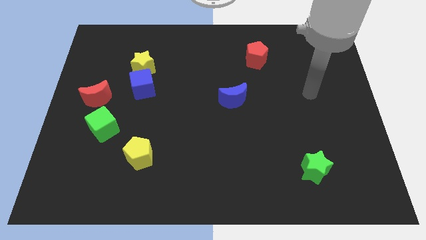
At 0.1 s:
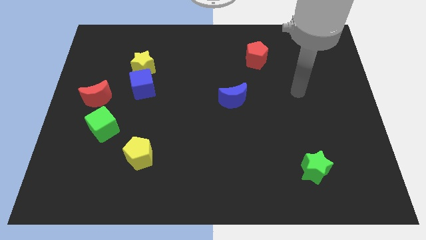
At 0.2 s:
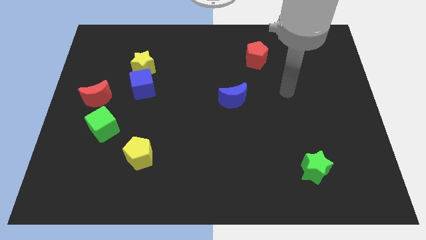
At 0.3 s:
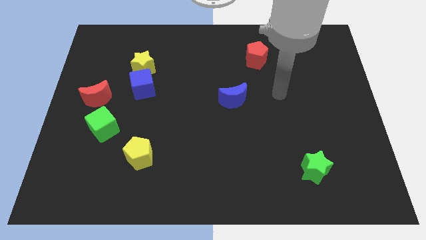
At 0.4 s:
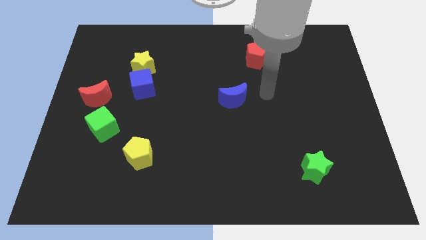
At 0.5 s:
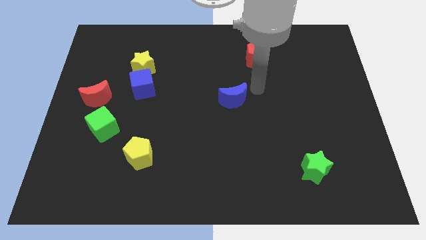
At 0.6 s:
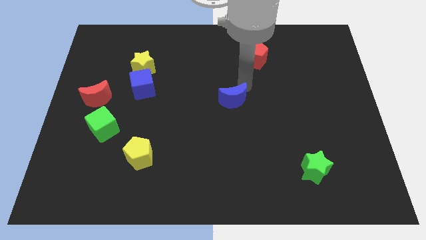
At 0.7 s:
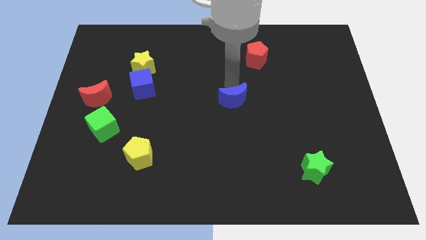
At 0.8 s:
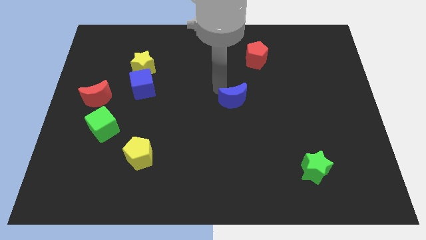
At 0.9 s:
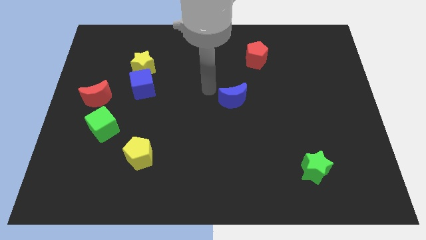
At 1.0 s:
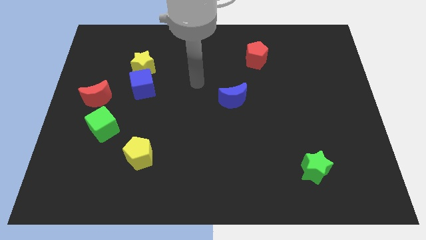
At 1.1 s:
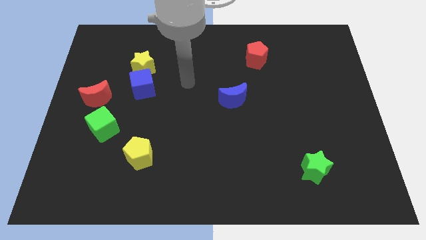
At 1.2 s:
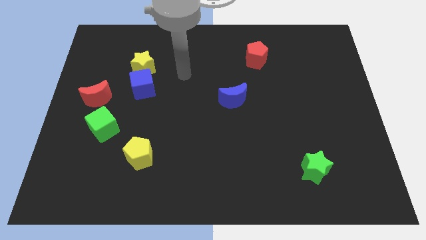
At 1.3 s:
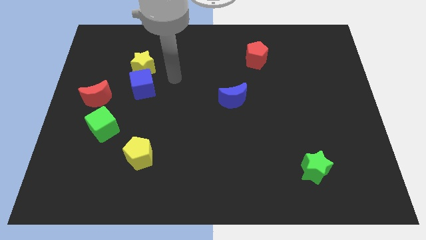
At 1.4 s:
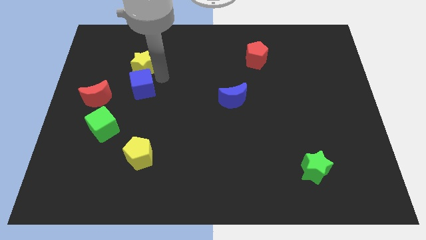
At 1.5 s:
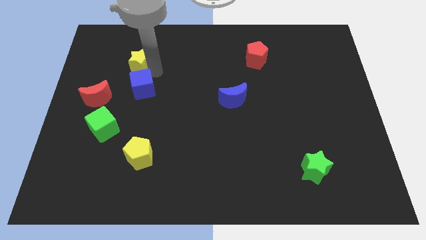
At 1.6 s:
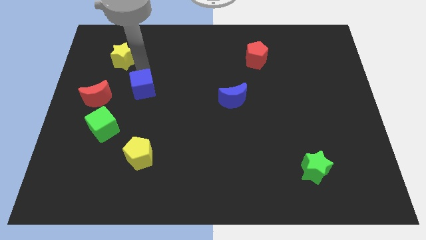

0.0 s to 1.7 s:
separate the blue cube from the yellow star

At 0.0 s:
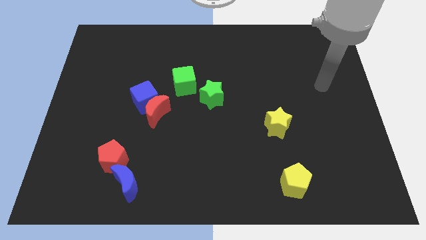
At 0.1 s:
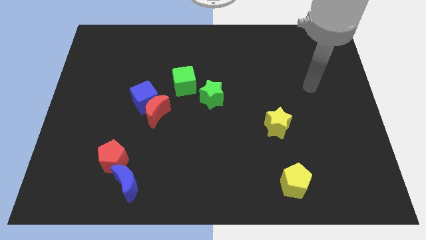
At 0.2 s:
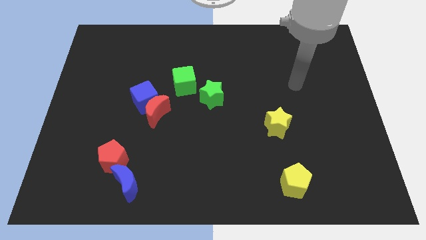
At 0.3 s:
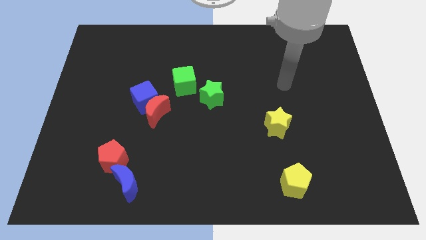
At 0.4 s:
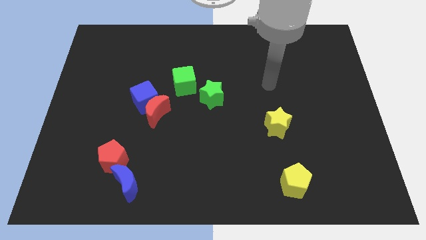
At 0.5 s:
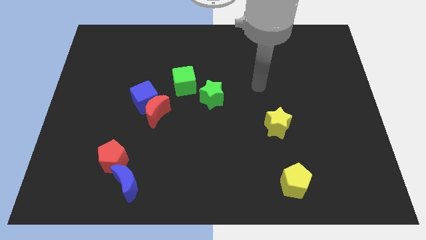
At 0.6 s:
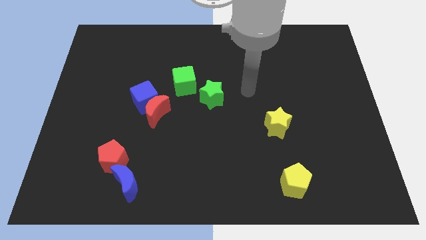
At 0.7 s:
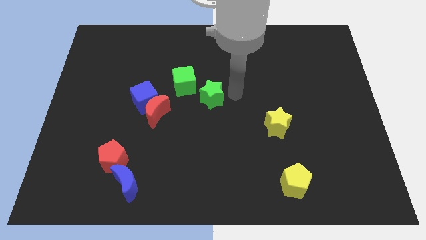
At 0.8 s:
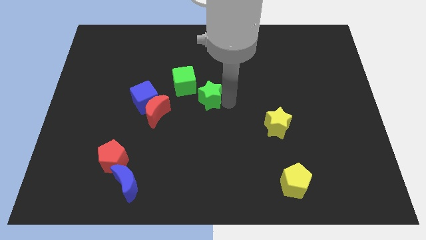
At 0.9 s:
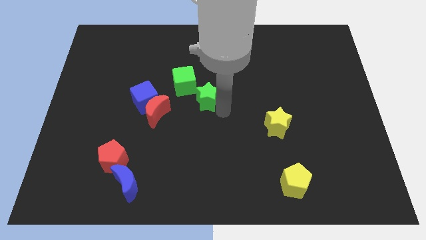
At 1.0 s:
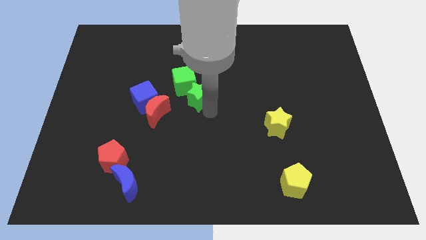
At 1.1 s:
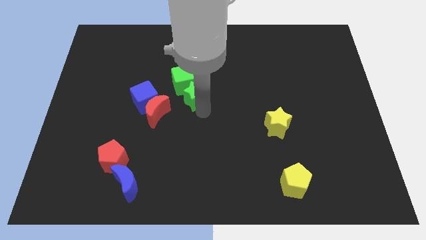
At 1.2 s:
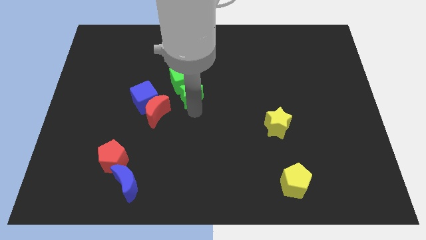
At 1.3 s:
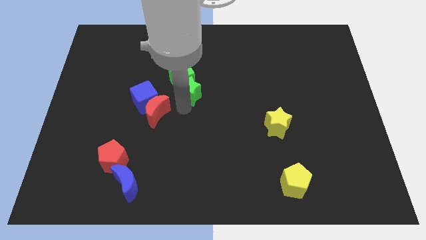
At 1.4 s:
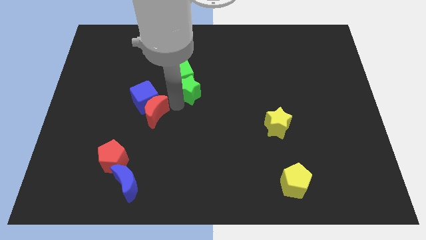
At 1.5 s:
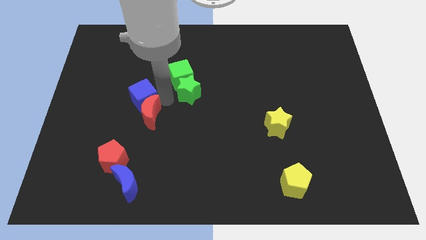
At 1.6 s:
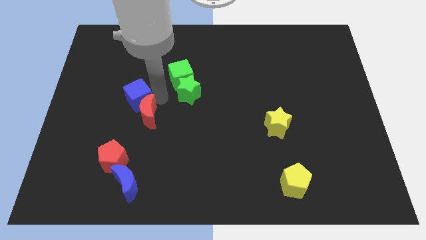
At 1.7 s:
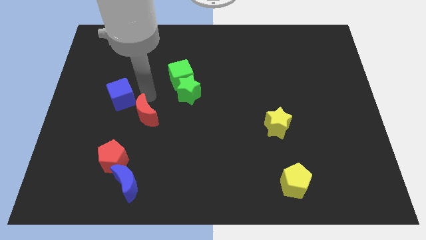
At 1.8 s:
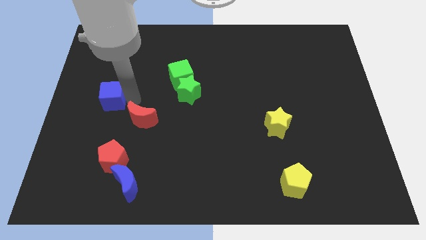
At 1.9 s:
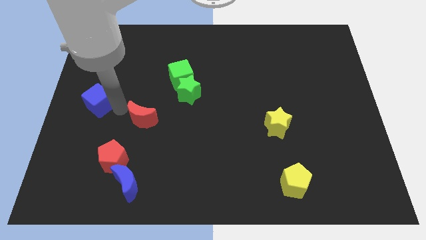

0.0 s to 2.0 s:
separate the red moon from the blue cube

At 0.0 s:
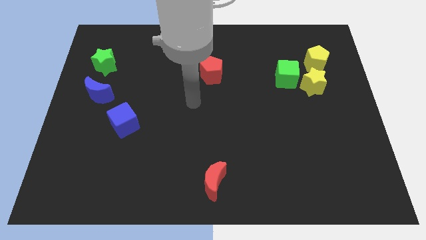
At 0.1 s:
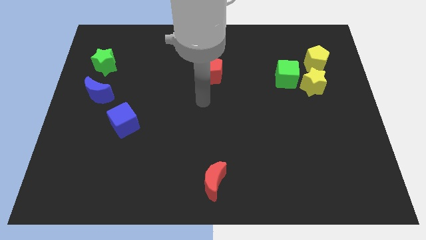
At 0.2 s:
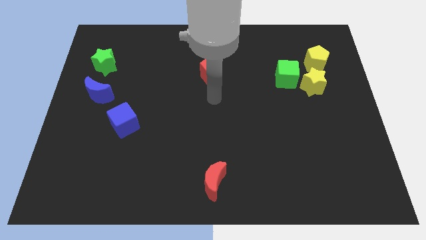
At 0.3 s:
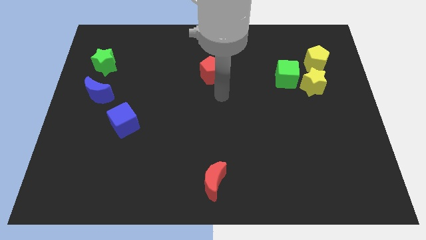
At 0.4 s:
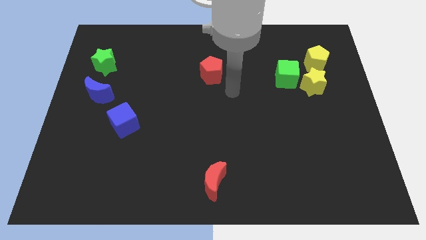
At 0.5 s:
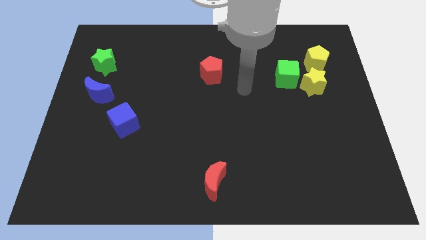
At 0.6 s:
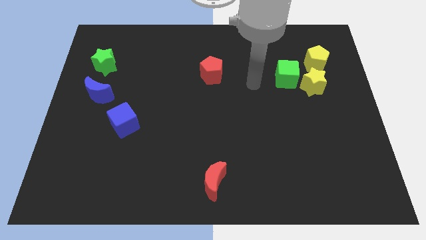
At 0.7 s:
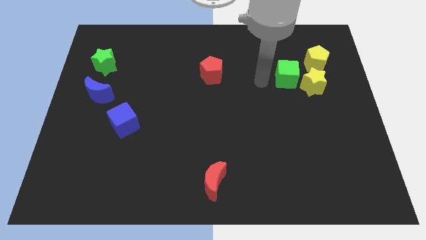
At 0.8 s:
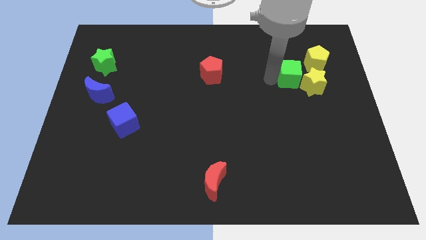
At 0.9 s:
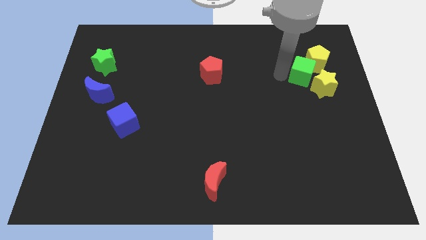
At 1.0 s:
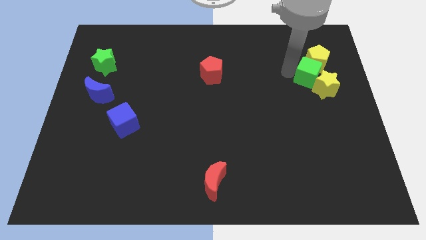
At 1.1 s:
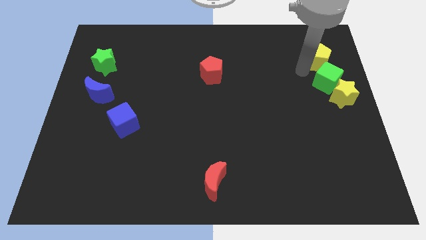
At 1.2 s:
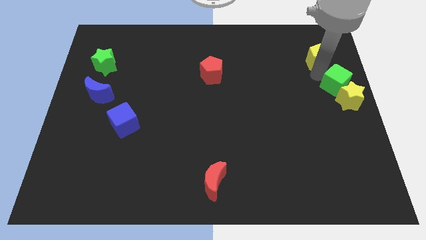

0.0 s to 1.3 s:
pull the yellow star apart from the green cube and yellow pentagon

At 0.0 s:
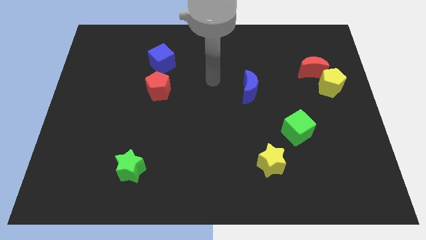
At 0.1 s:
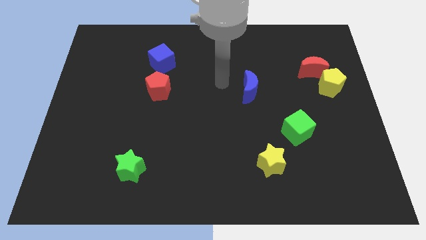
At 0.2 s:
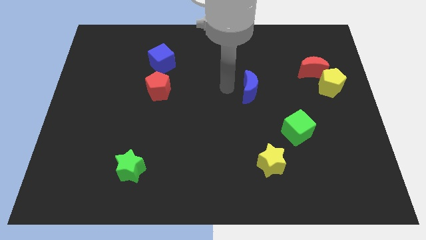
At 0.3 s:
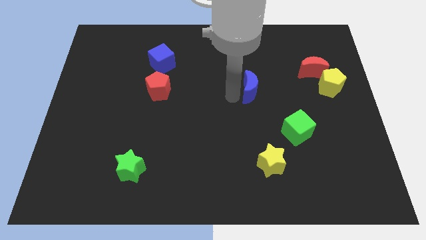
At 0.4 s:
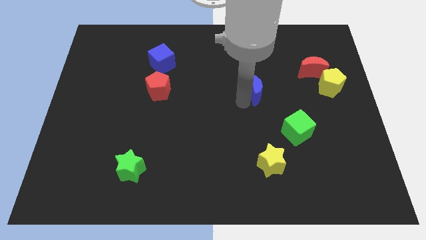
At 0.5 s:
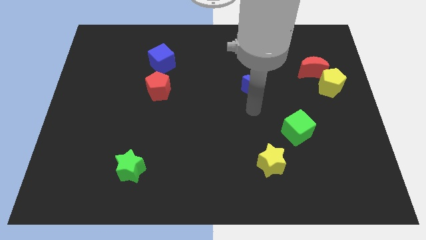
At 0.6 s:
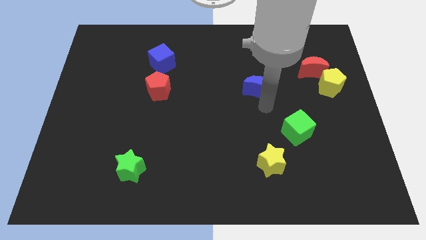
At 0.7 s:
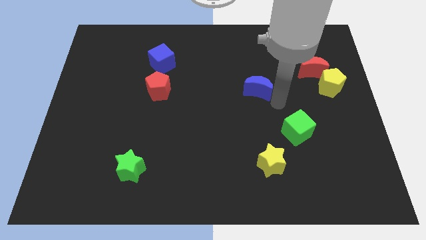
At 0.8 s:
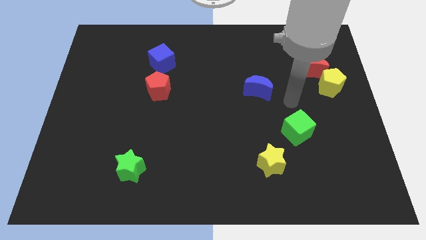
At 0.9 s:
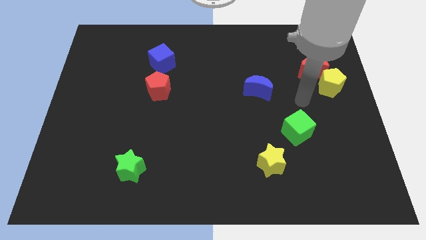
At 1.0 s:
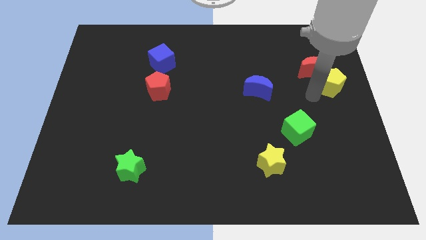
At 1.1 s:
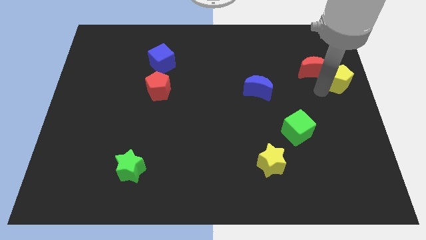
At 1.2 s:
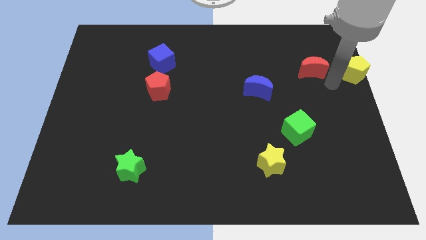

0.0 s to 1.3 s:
separate the red moon from the yellow pentagon

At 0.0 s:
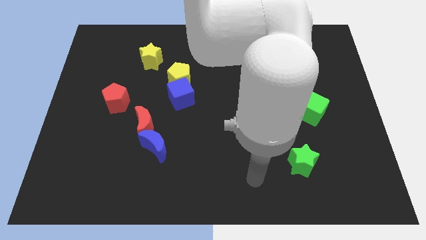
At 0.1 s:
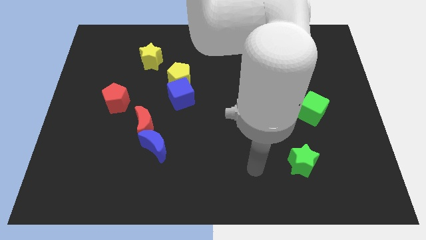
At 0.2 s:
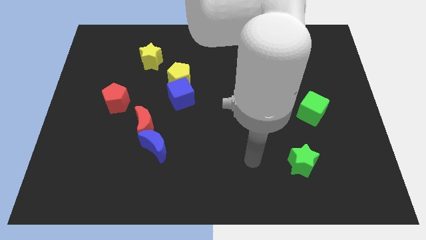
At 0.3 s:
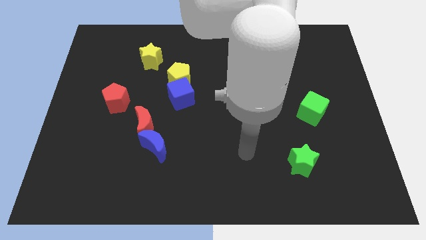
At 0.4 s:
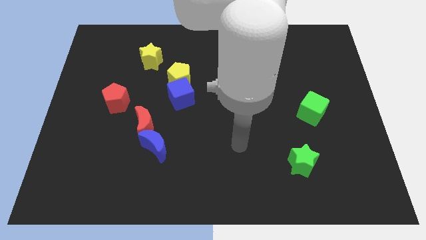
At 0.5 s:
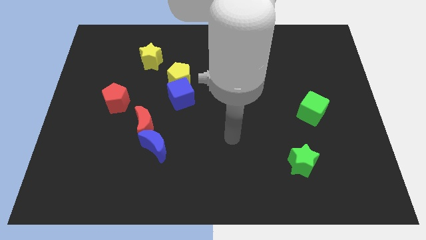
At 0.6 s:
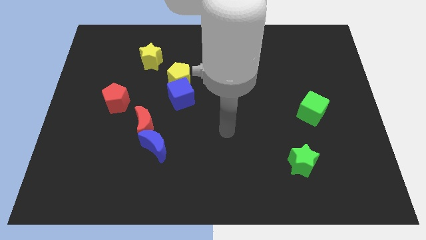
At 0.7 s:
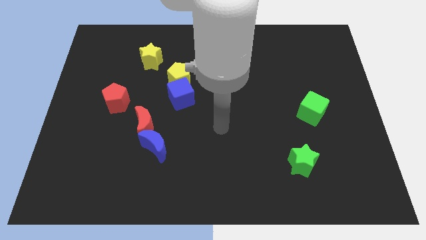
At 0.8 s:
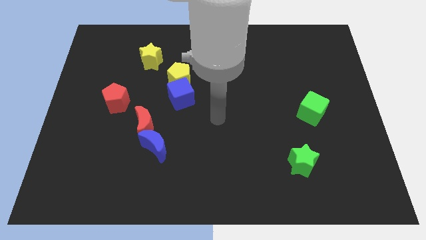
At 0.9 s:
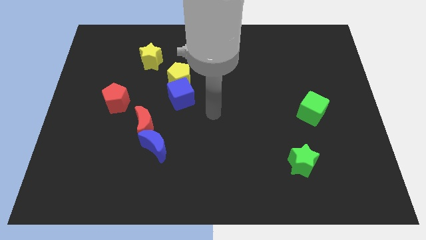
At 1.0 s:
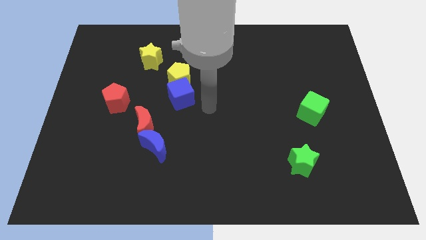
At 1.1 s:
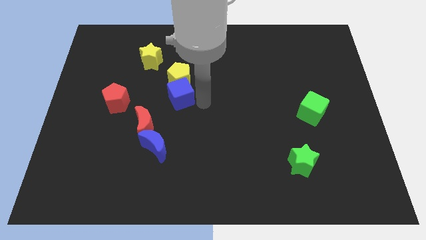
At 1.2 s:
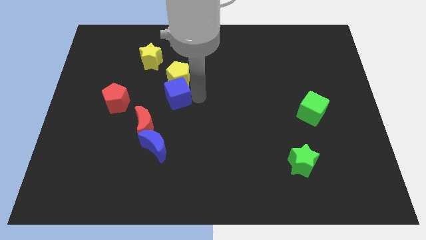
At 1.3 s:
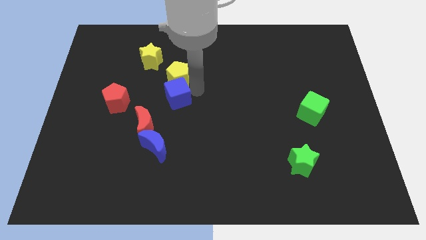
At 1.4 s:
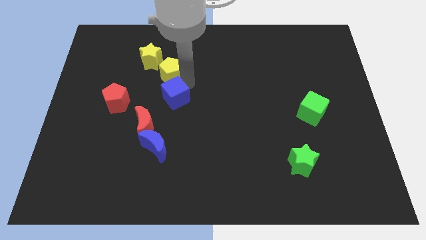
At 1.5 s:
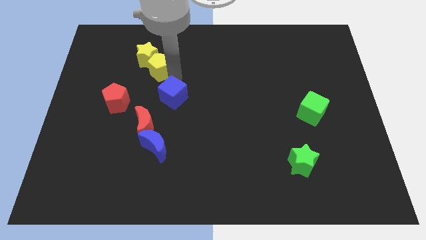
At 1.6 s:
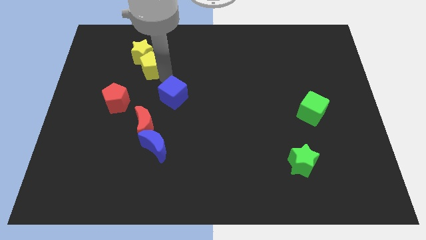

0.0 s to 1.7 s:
separate the blue cube from the yellow pentagon

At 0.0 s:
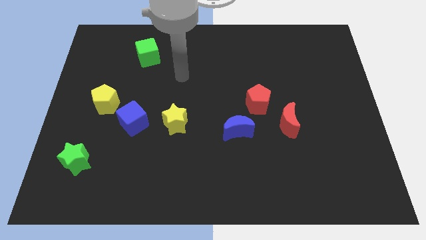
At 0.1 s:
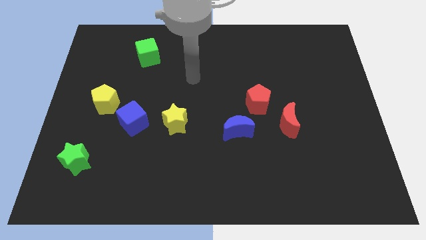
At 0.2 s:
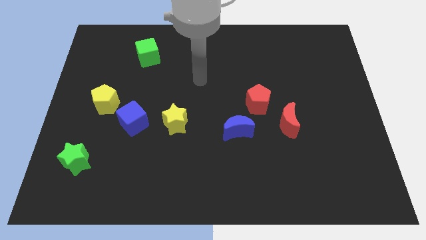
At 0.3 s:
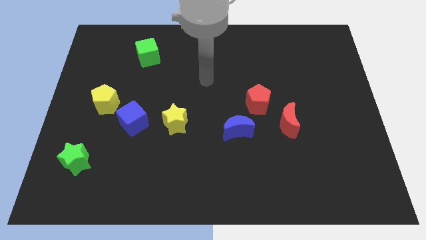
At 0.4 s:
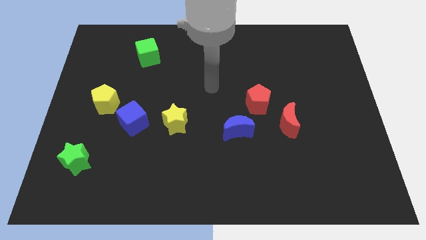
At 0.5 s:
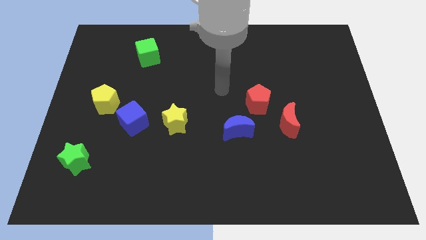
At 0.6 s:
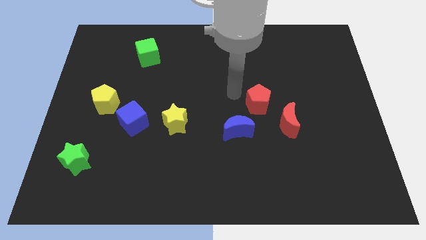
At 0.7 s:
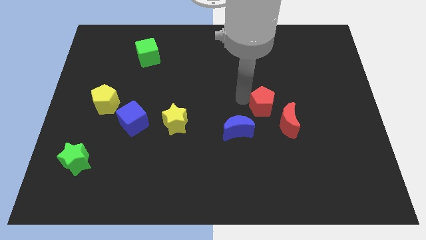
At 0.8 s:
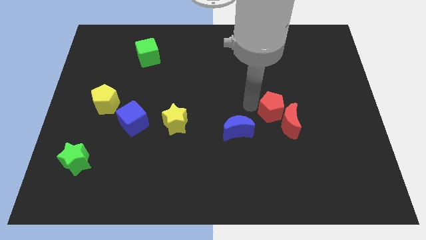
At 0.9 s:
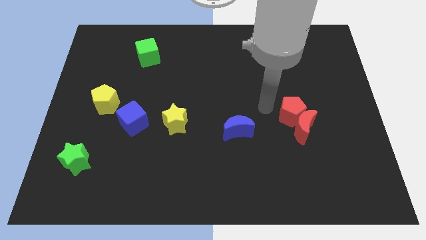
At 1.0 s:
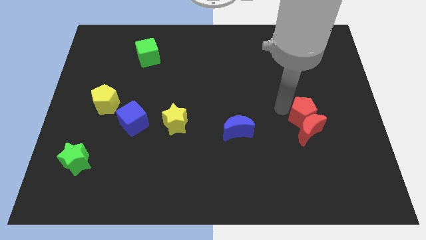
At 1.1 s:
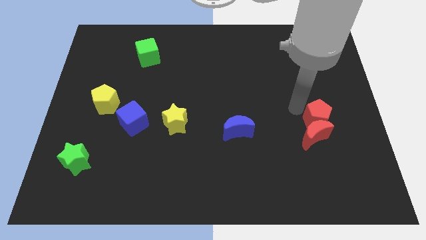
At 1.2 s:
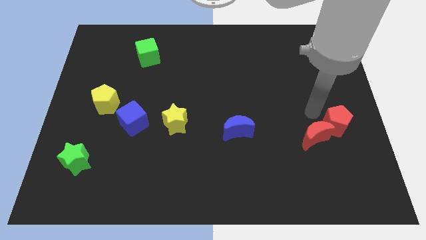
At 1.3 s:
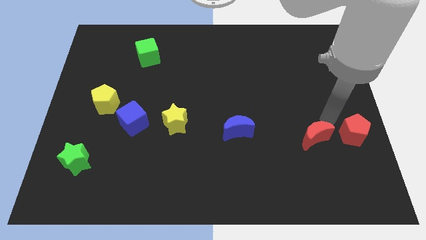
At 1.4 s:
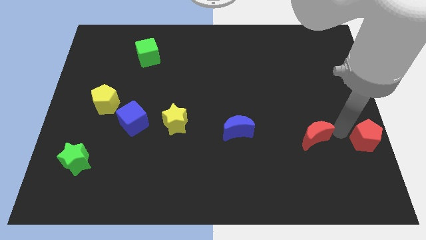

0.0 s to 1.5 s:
separate the red moon from the red pentagon

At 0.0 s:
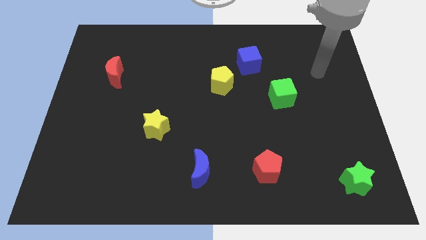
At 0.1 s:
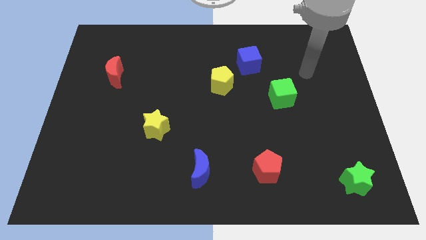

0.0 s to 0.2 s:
move the blue cube away from the yellow pentagon
